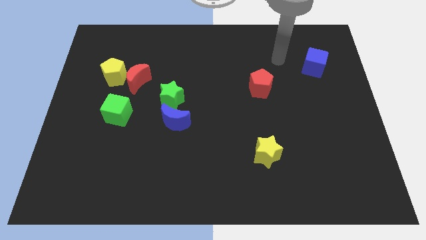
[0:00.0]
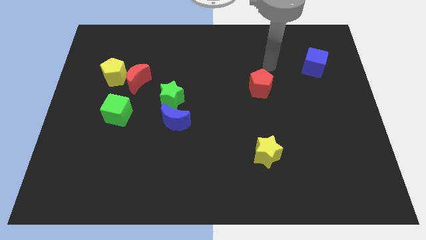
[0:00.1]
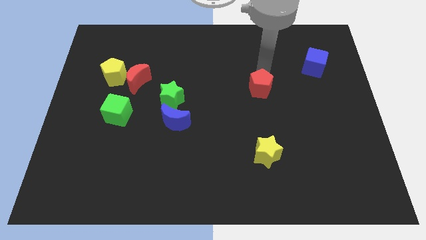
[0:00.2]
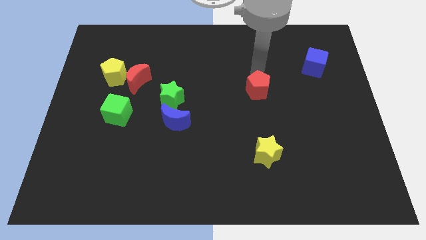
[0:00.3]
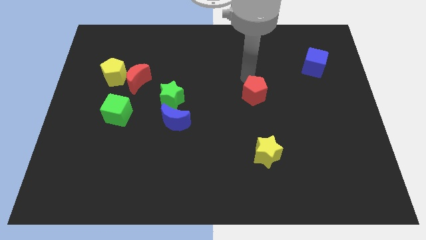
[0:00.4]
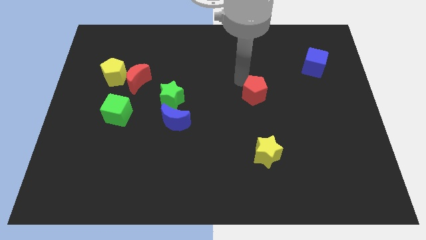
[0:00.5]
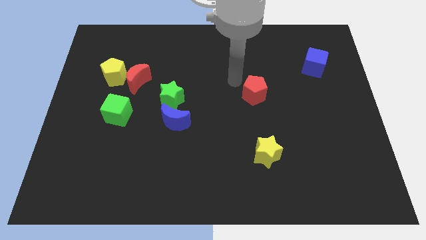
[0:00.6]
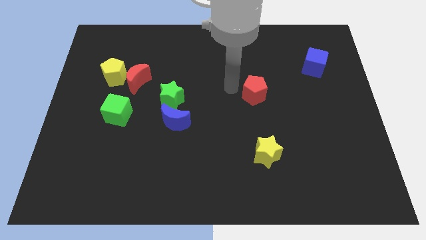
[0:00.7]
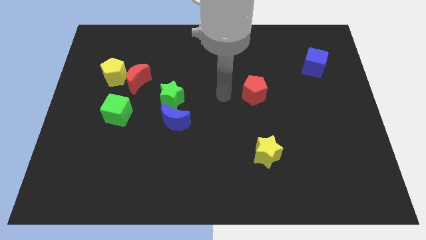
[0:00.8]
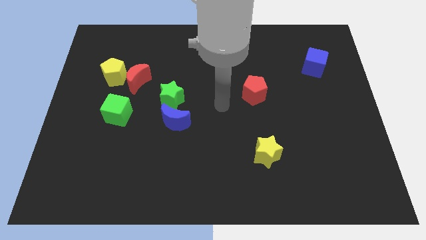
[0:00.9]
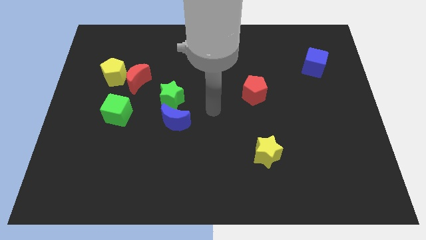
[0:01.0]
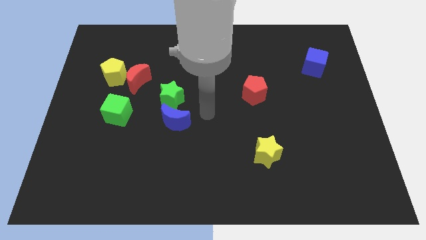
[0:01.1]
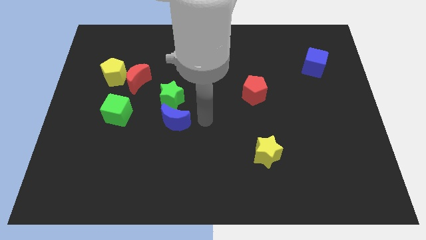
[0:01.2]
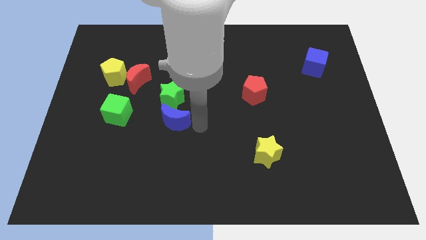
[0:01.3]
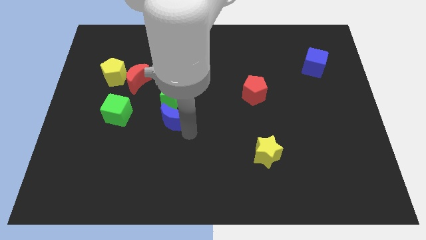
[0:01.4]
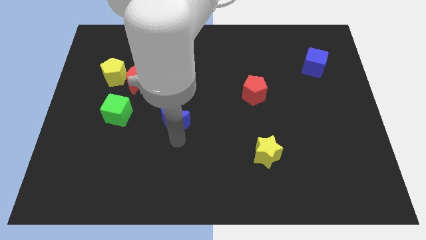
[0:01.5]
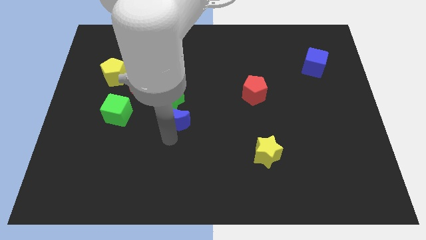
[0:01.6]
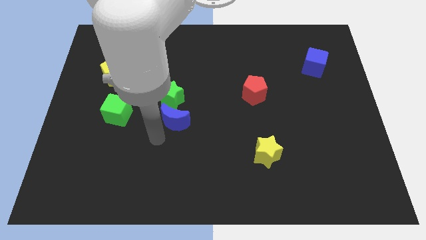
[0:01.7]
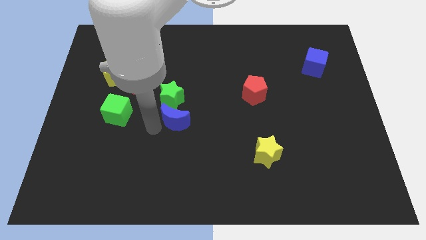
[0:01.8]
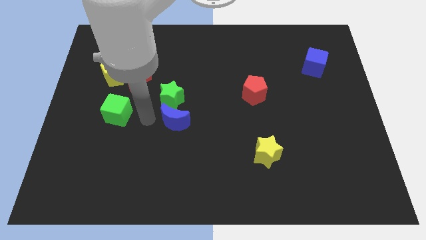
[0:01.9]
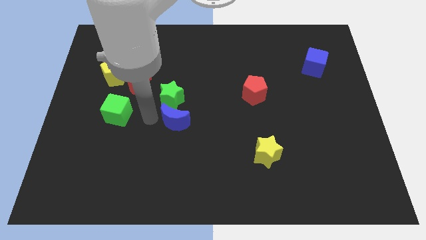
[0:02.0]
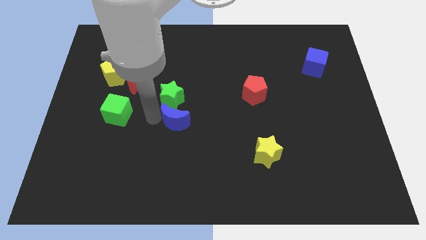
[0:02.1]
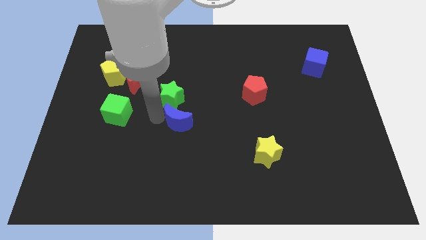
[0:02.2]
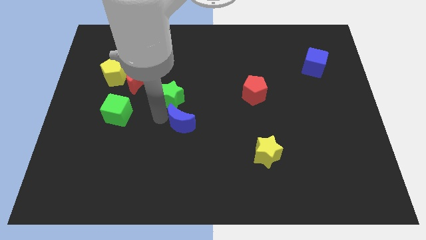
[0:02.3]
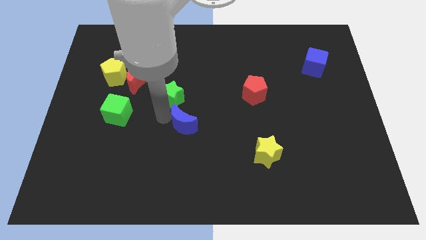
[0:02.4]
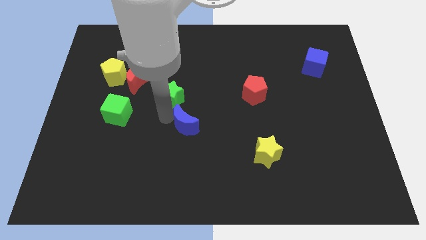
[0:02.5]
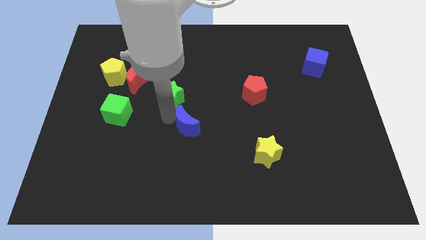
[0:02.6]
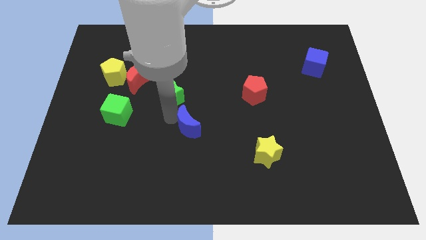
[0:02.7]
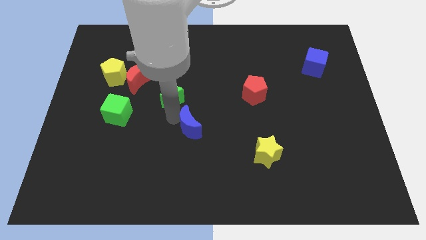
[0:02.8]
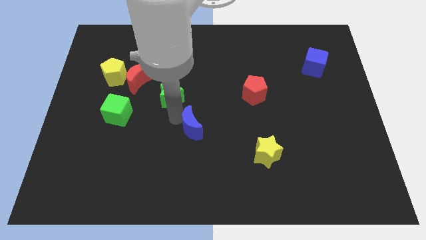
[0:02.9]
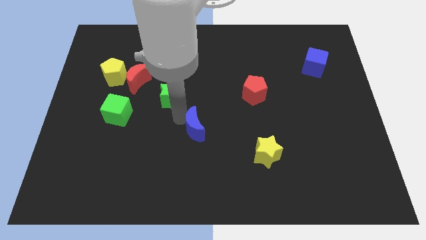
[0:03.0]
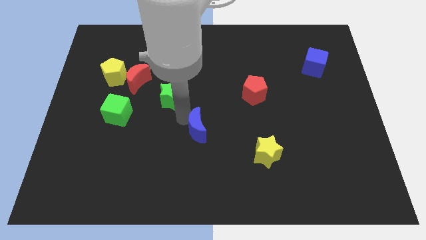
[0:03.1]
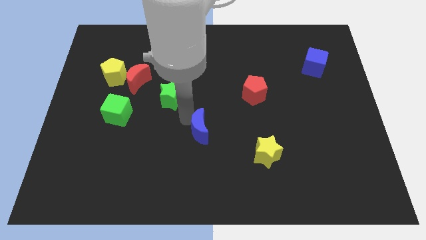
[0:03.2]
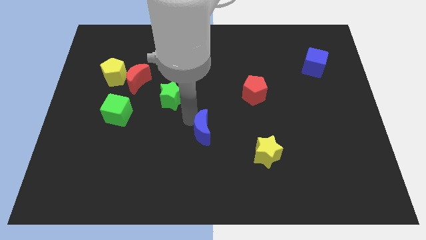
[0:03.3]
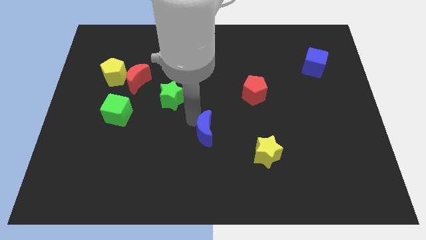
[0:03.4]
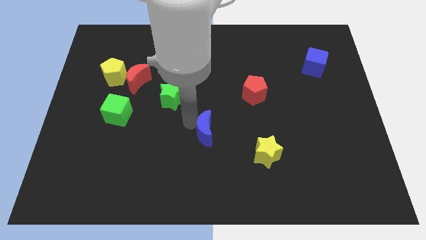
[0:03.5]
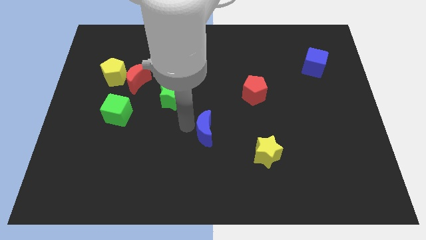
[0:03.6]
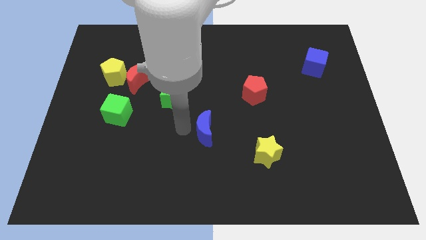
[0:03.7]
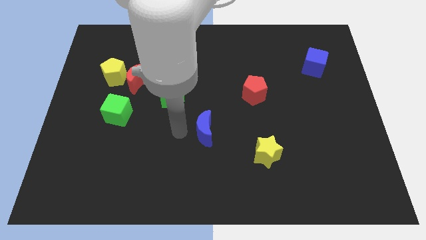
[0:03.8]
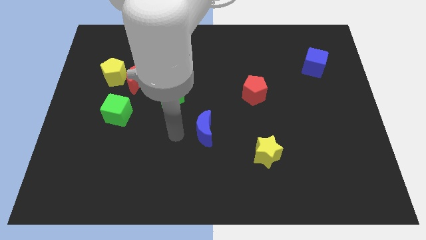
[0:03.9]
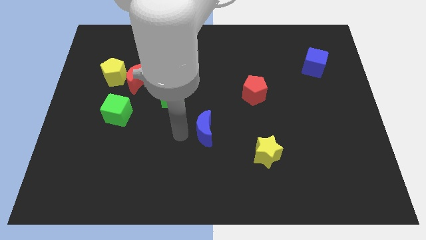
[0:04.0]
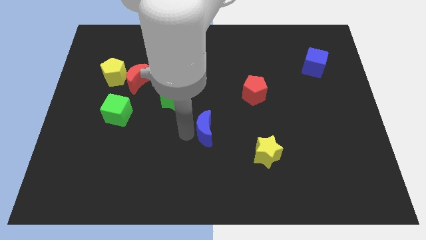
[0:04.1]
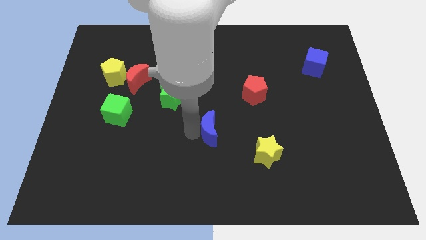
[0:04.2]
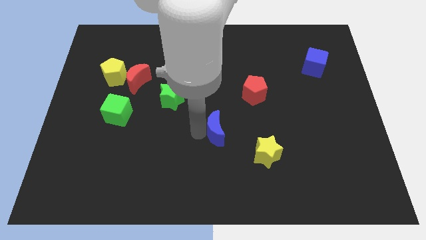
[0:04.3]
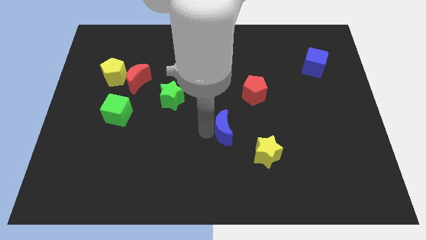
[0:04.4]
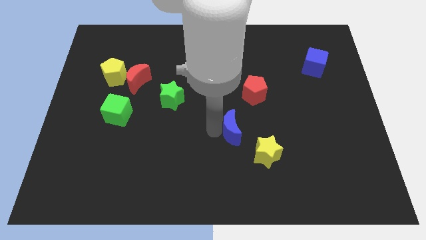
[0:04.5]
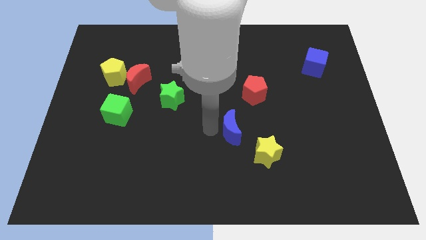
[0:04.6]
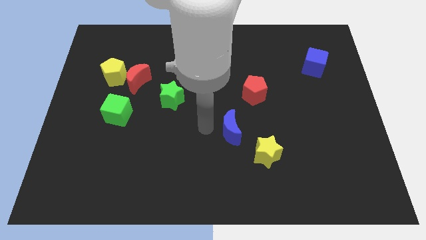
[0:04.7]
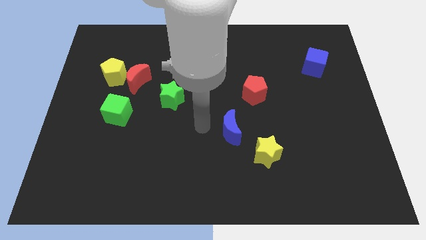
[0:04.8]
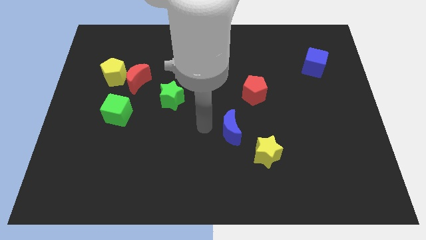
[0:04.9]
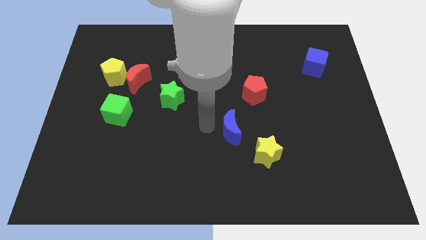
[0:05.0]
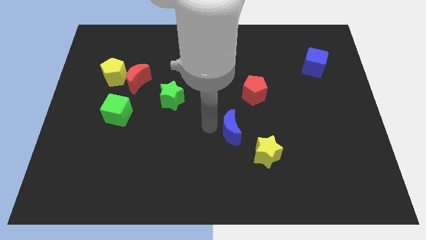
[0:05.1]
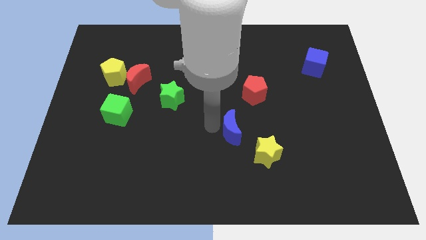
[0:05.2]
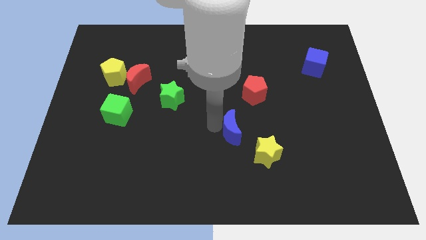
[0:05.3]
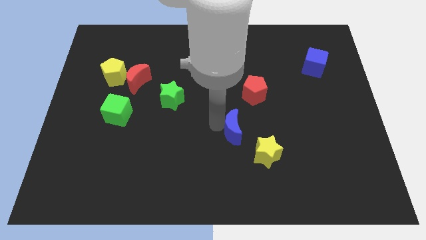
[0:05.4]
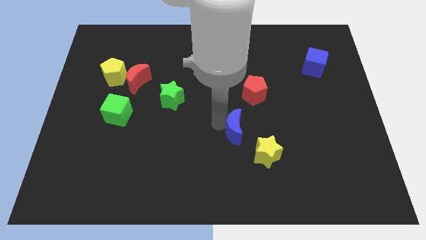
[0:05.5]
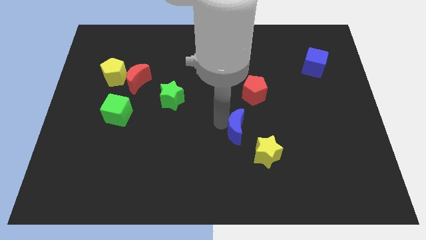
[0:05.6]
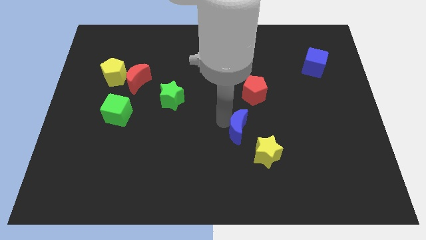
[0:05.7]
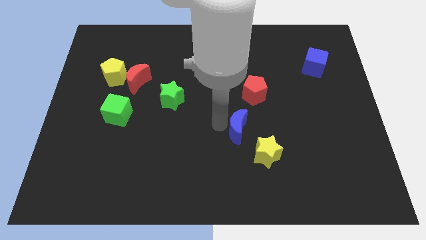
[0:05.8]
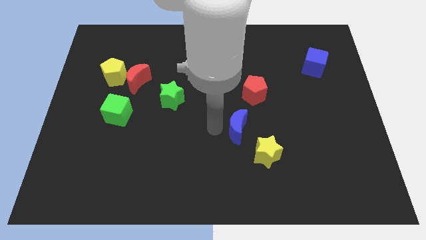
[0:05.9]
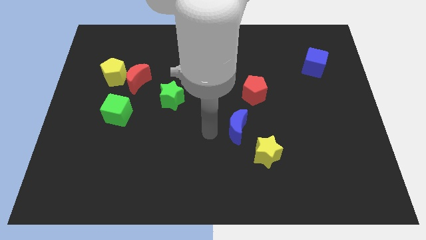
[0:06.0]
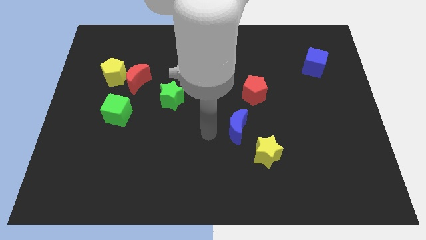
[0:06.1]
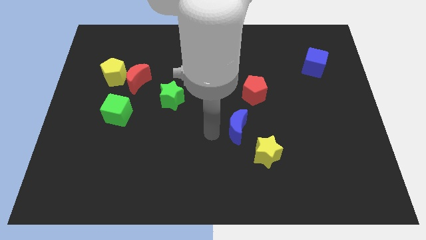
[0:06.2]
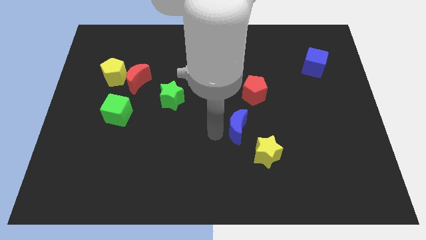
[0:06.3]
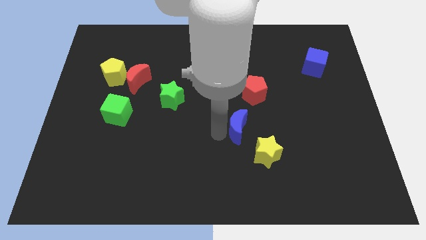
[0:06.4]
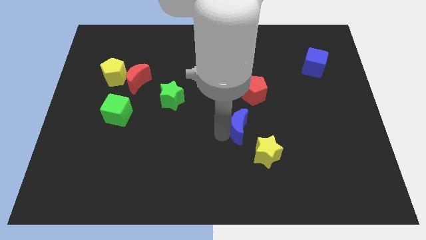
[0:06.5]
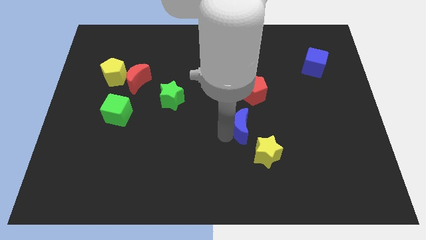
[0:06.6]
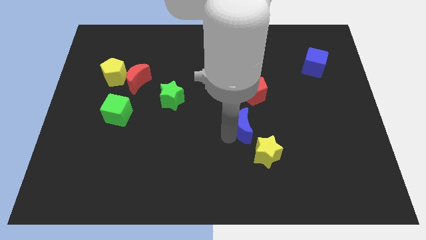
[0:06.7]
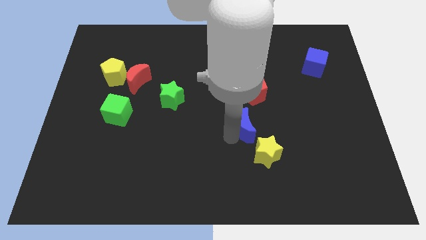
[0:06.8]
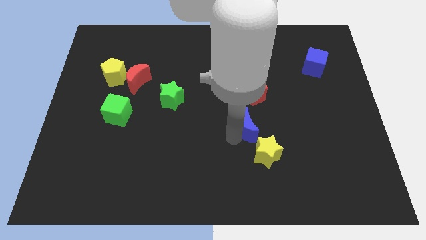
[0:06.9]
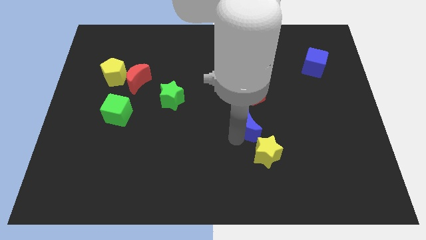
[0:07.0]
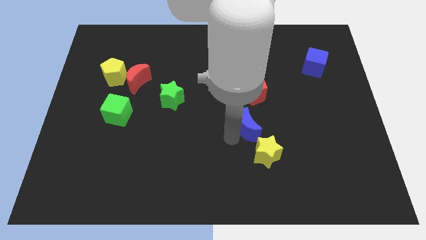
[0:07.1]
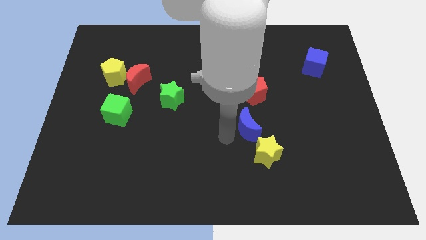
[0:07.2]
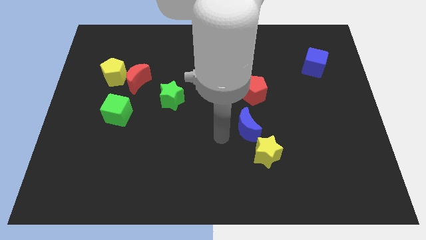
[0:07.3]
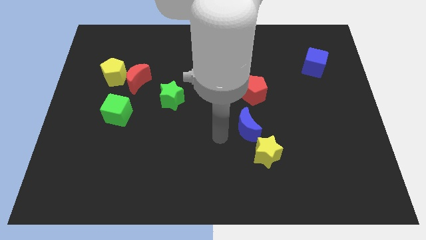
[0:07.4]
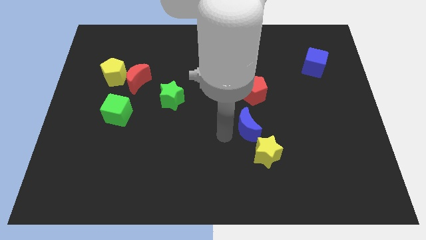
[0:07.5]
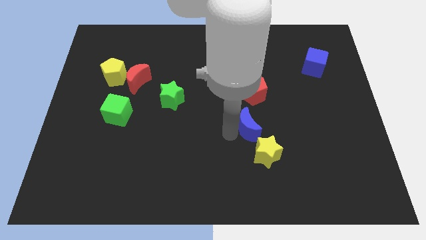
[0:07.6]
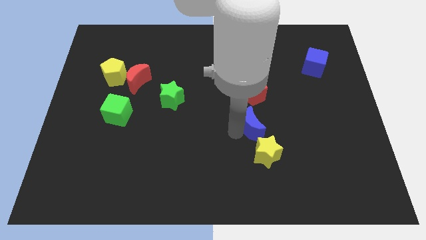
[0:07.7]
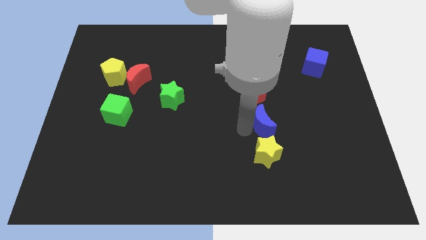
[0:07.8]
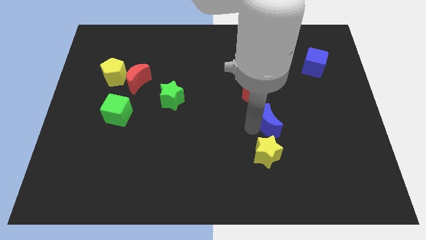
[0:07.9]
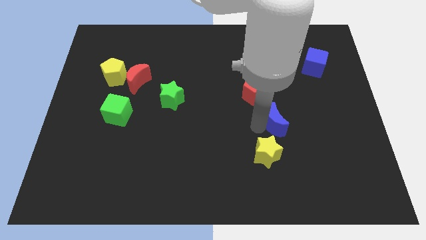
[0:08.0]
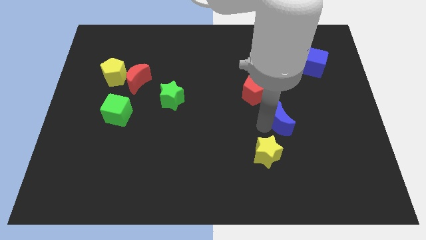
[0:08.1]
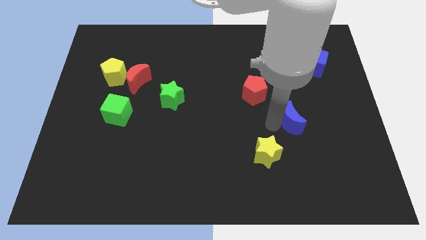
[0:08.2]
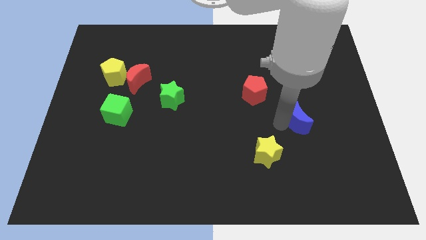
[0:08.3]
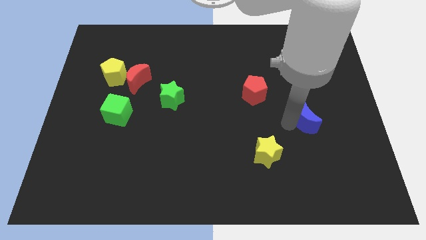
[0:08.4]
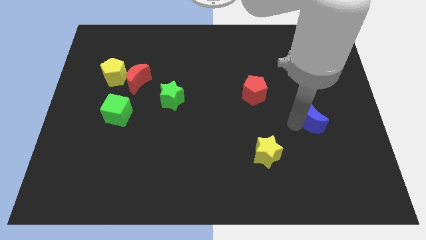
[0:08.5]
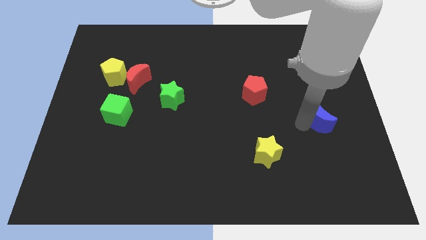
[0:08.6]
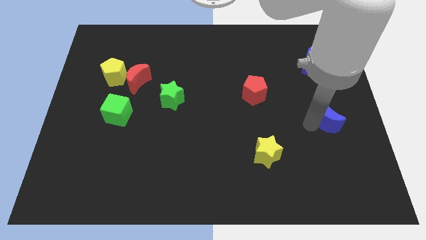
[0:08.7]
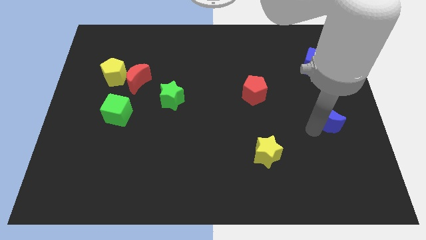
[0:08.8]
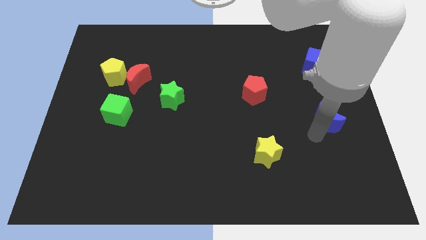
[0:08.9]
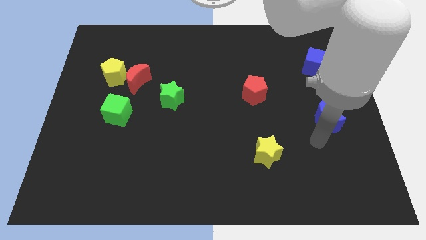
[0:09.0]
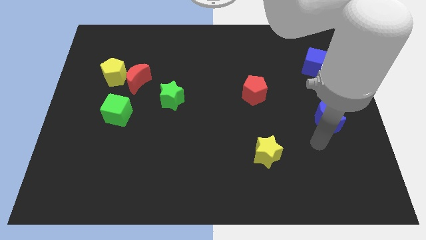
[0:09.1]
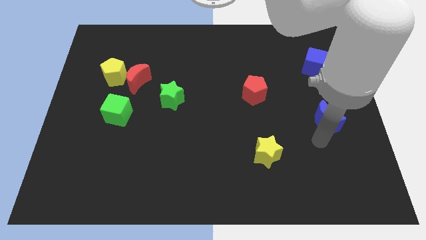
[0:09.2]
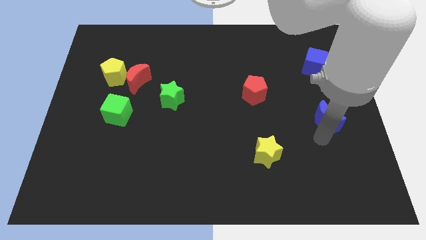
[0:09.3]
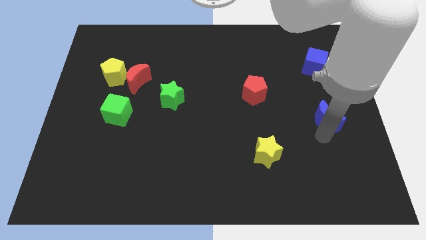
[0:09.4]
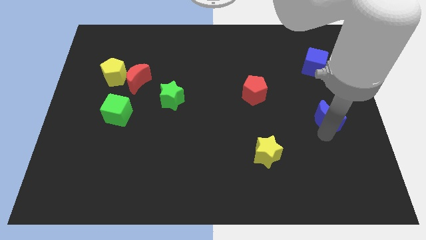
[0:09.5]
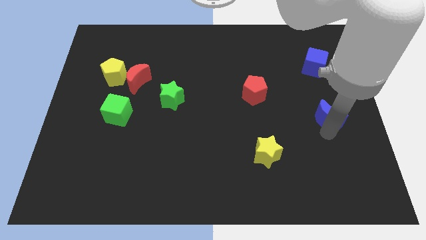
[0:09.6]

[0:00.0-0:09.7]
slide the blue moon to the center right
